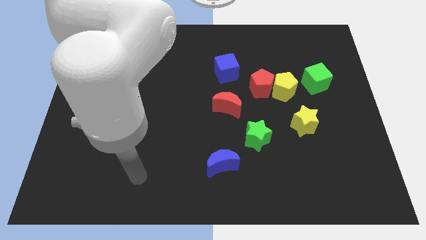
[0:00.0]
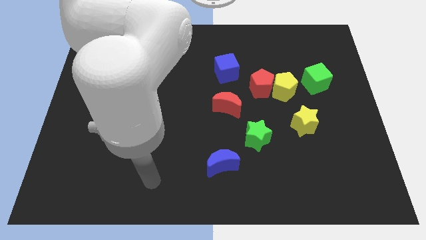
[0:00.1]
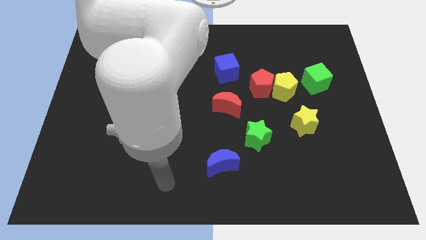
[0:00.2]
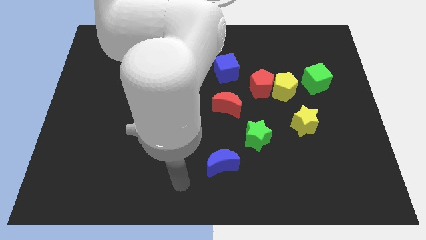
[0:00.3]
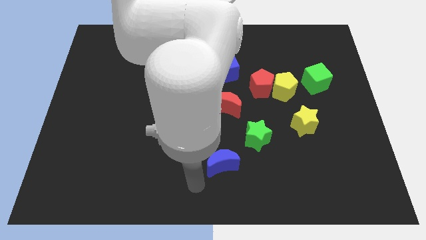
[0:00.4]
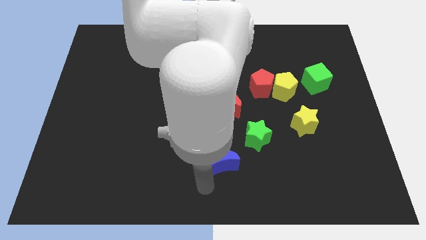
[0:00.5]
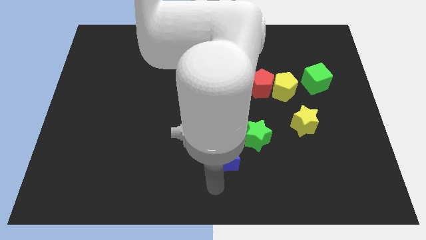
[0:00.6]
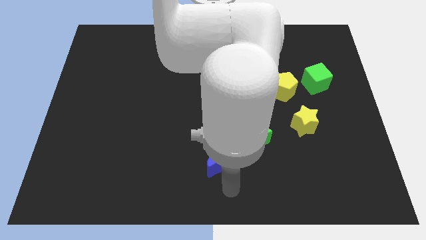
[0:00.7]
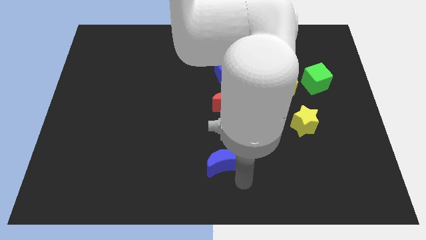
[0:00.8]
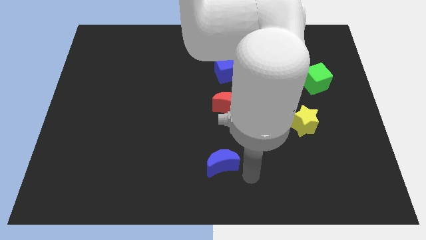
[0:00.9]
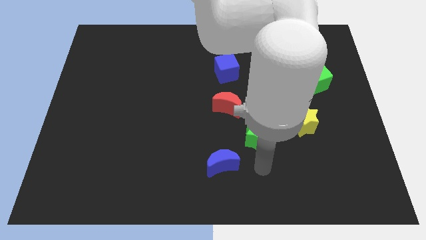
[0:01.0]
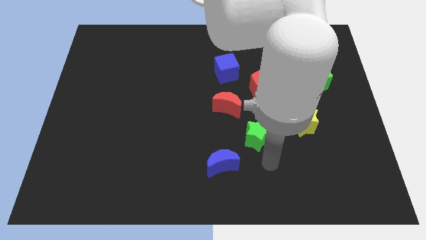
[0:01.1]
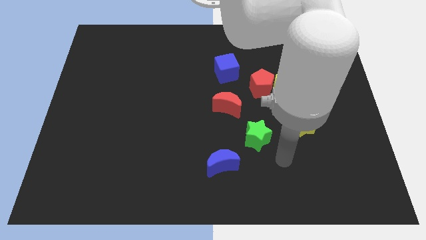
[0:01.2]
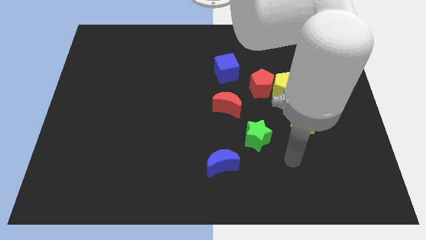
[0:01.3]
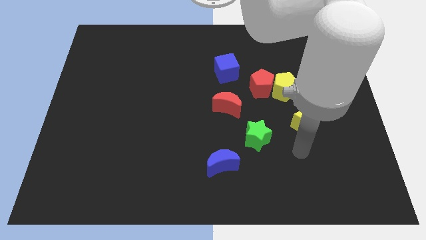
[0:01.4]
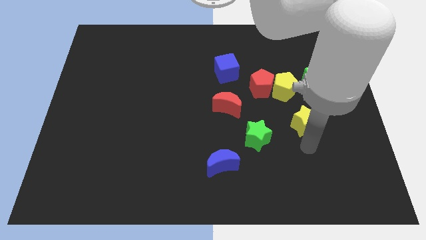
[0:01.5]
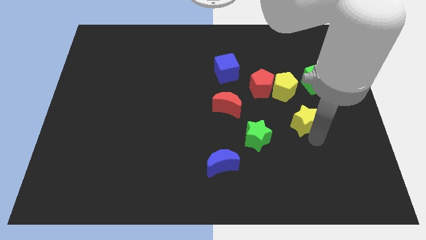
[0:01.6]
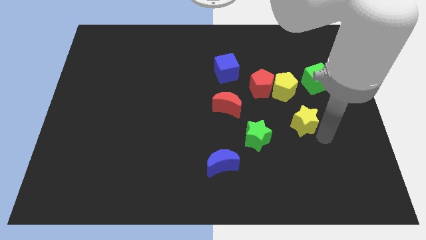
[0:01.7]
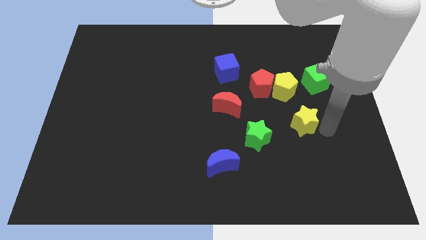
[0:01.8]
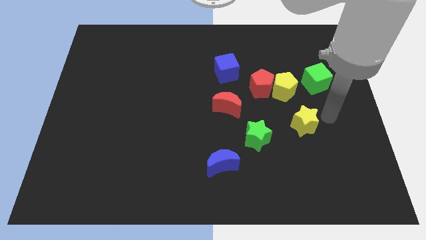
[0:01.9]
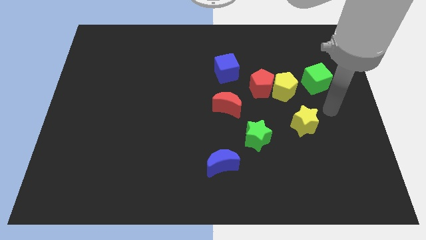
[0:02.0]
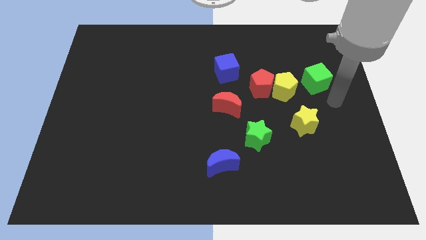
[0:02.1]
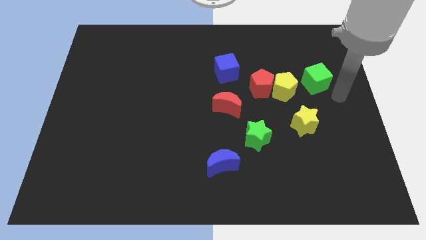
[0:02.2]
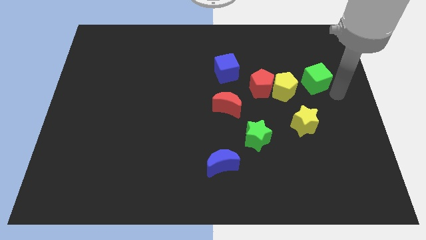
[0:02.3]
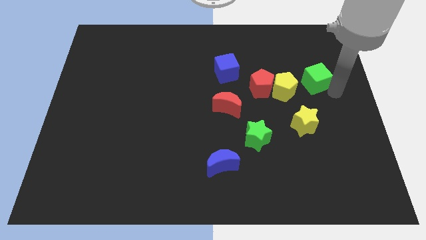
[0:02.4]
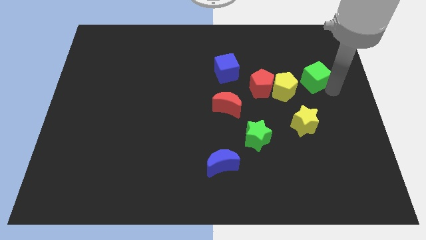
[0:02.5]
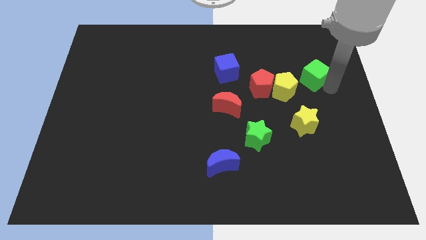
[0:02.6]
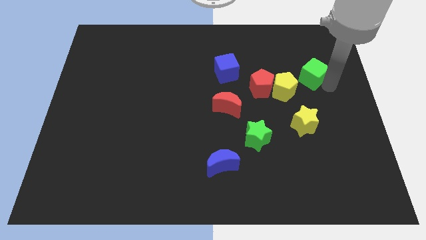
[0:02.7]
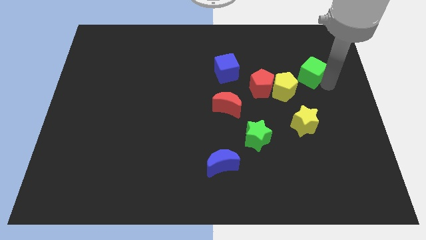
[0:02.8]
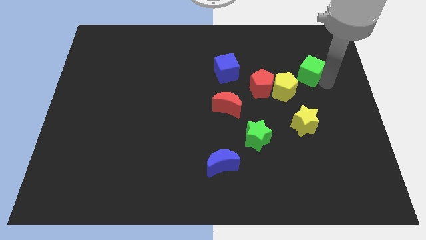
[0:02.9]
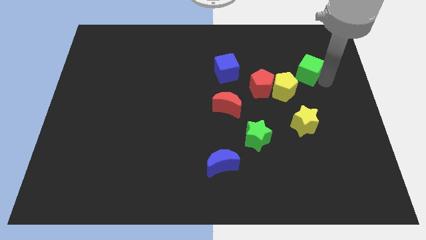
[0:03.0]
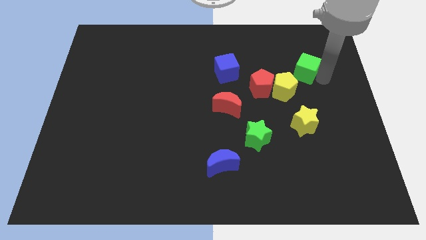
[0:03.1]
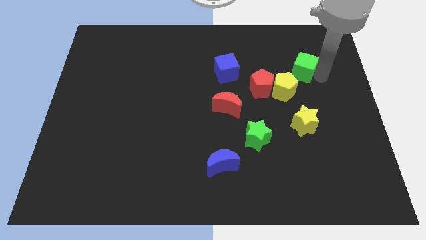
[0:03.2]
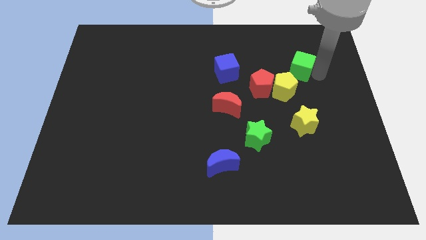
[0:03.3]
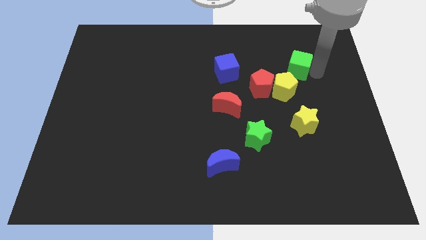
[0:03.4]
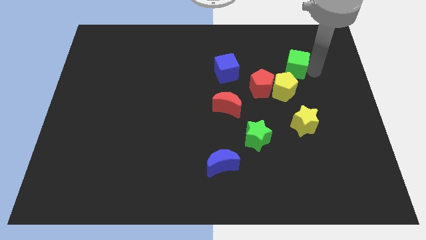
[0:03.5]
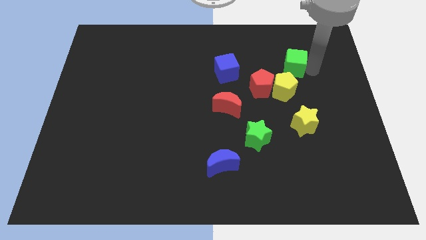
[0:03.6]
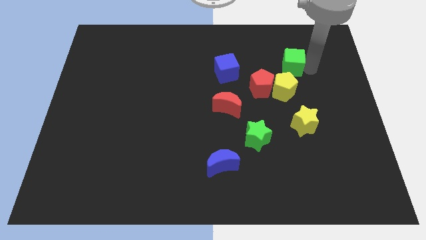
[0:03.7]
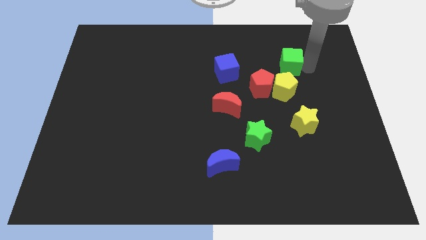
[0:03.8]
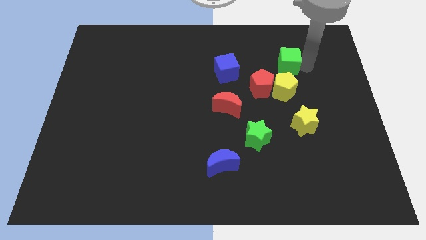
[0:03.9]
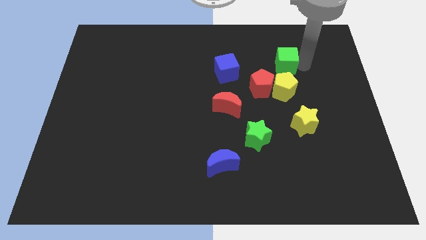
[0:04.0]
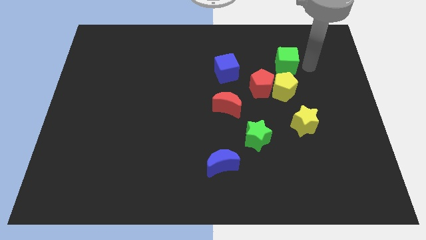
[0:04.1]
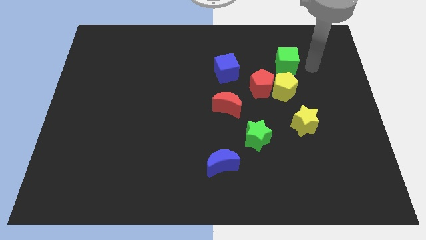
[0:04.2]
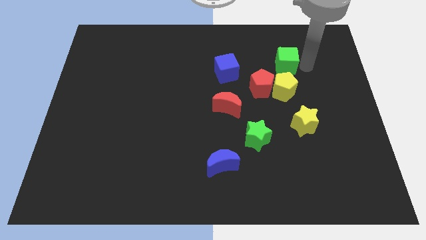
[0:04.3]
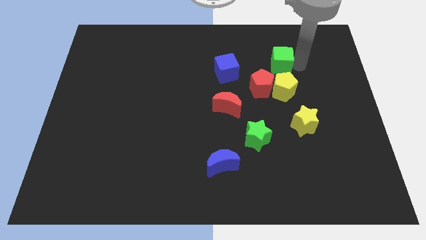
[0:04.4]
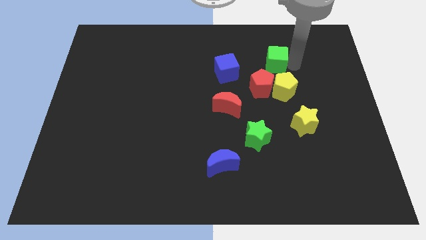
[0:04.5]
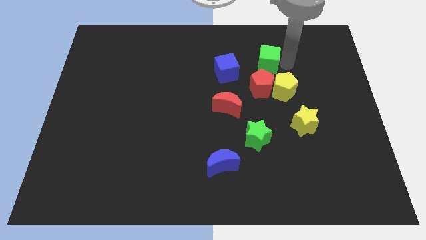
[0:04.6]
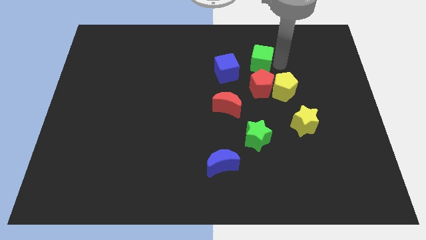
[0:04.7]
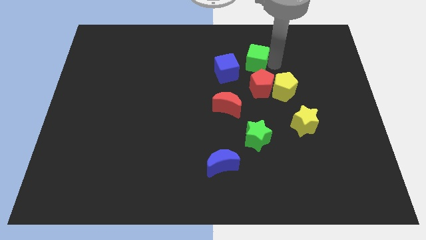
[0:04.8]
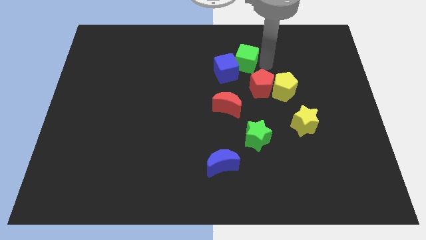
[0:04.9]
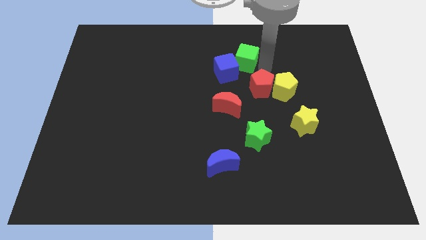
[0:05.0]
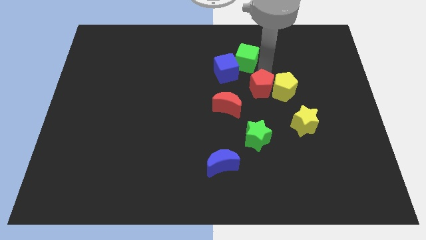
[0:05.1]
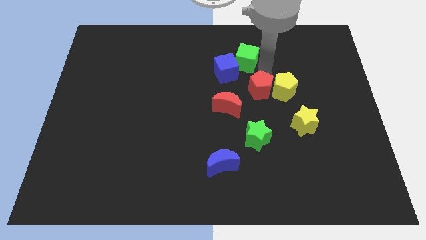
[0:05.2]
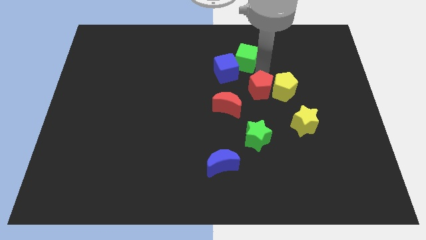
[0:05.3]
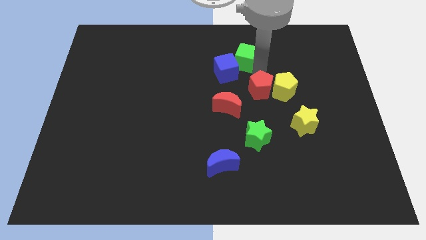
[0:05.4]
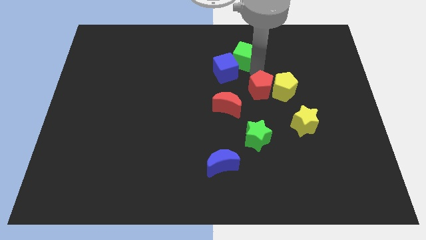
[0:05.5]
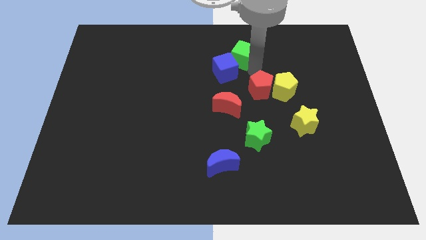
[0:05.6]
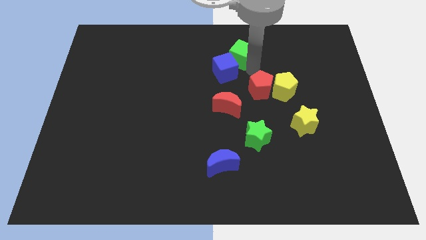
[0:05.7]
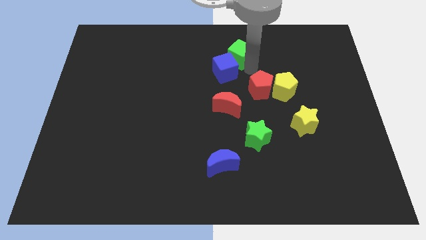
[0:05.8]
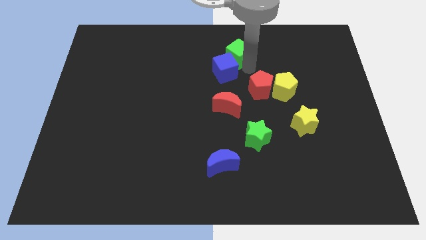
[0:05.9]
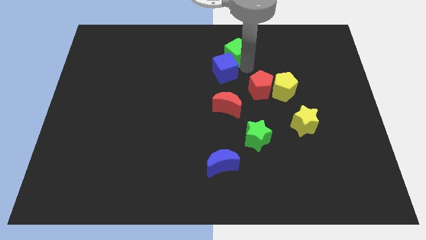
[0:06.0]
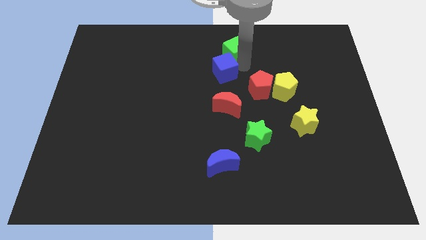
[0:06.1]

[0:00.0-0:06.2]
push the green cube to the top
